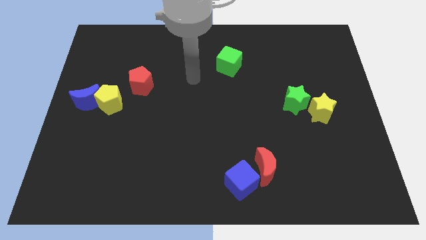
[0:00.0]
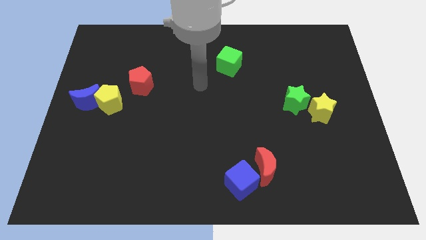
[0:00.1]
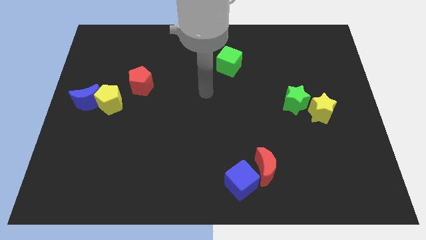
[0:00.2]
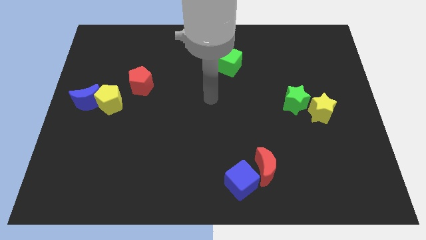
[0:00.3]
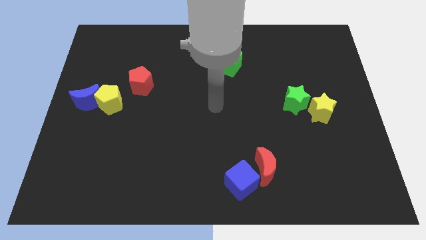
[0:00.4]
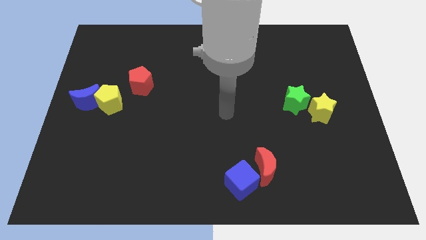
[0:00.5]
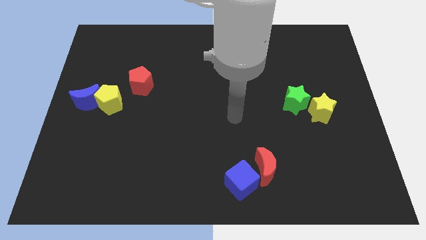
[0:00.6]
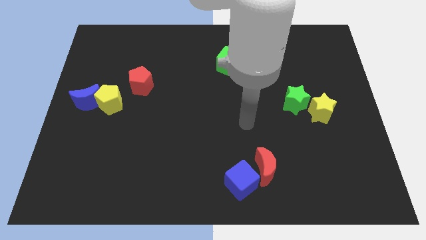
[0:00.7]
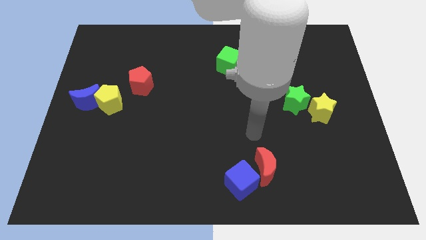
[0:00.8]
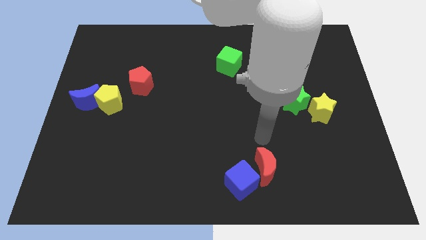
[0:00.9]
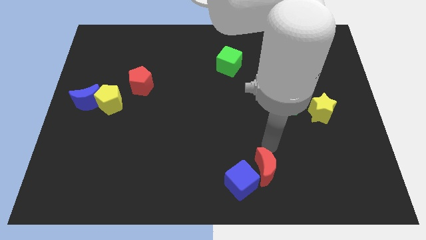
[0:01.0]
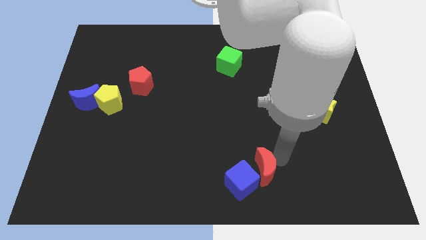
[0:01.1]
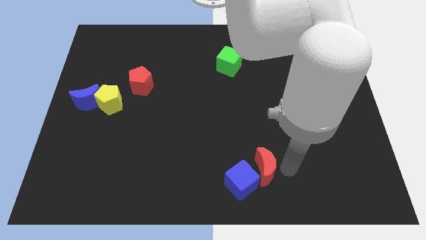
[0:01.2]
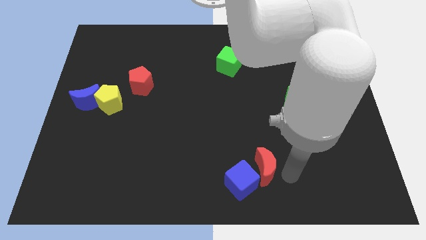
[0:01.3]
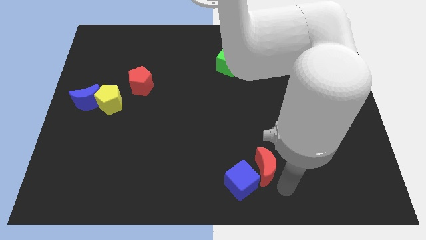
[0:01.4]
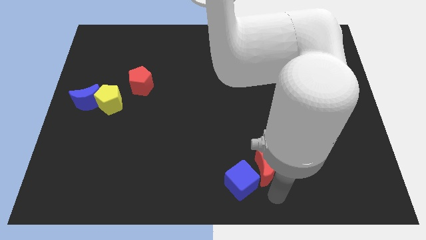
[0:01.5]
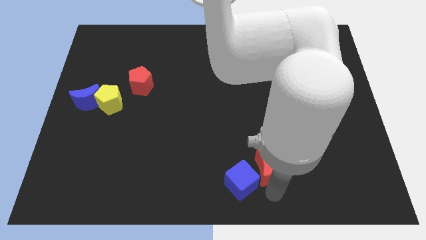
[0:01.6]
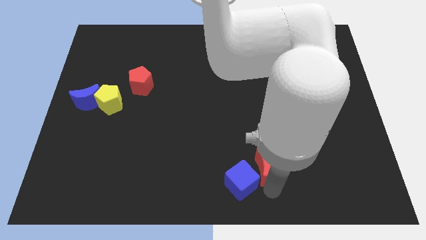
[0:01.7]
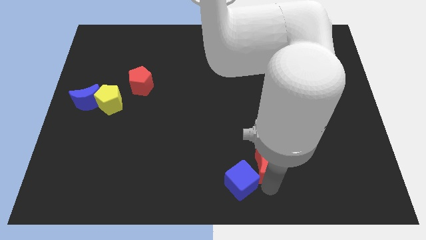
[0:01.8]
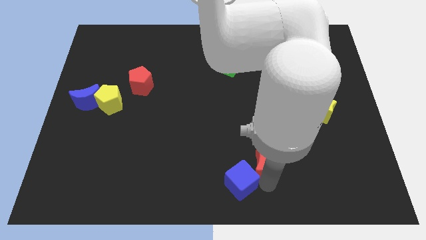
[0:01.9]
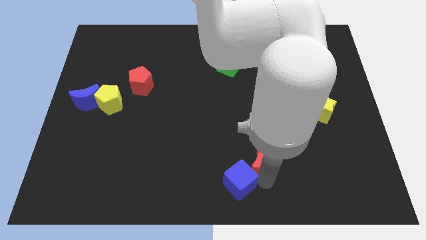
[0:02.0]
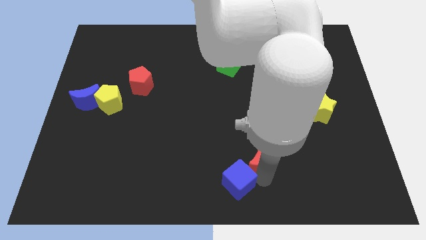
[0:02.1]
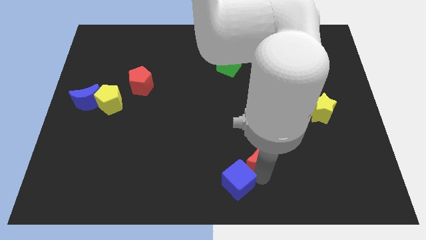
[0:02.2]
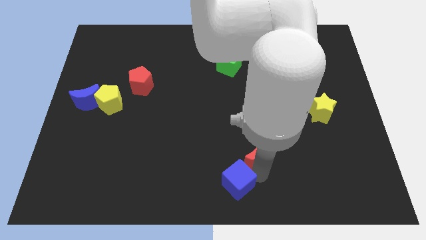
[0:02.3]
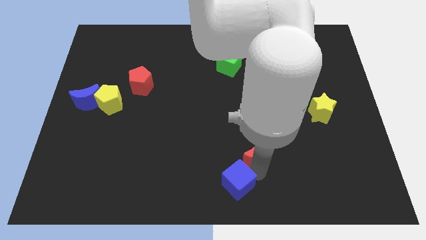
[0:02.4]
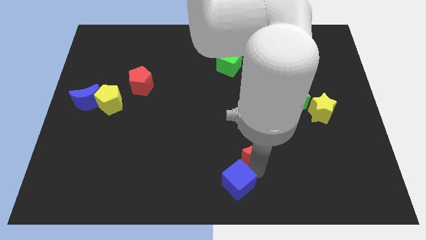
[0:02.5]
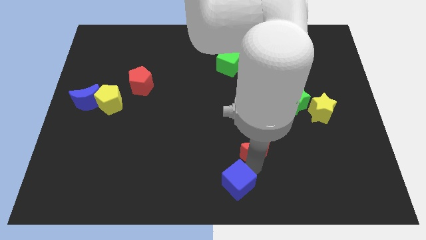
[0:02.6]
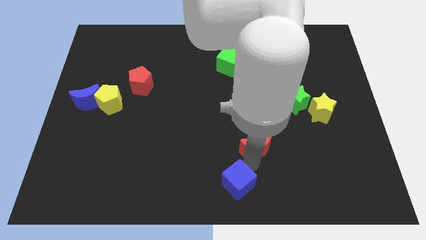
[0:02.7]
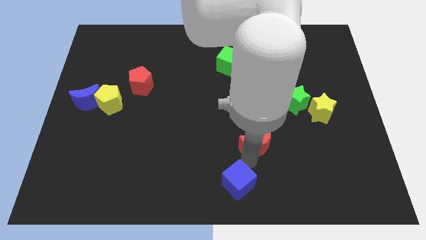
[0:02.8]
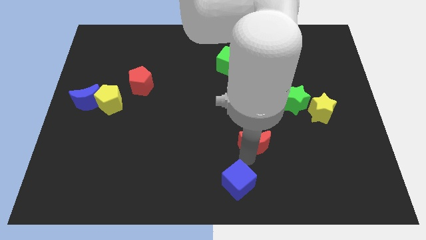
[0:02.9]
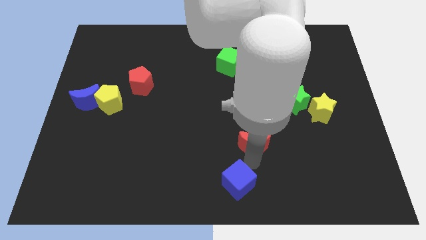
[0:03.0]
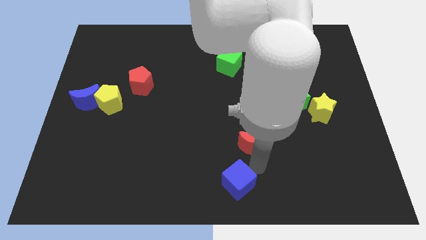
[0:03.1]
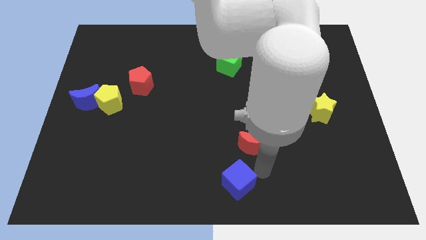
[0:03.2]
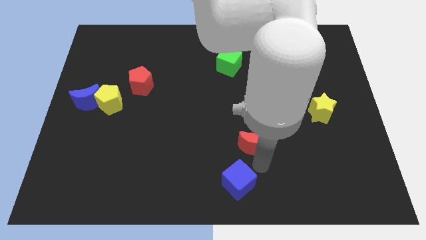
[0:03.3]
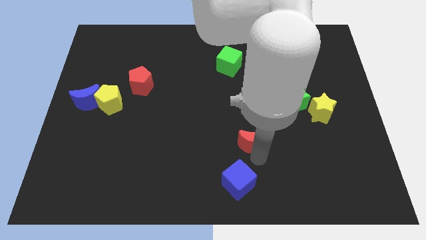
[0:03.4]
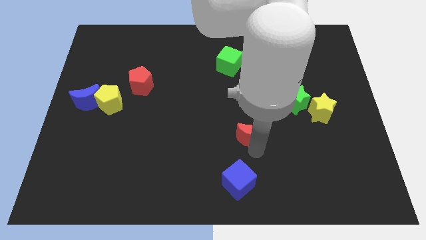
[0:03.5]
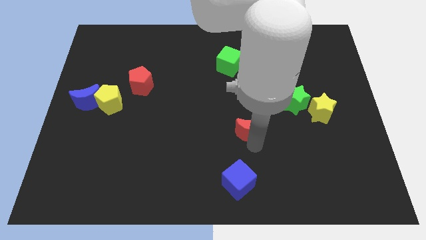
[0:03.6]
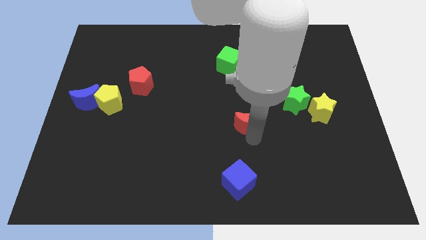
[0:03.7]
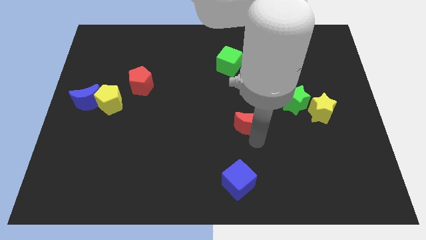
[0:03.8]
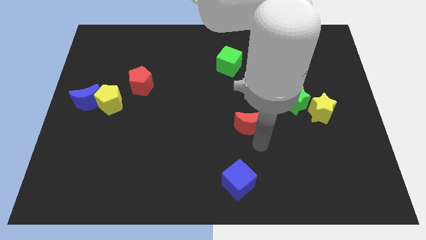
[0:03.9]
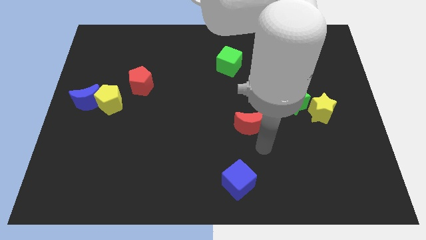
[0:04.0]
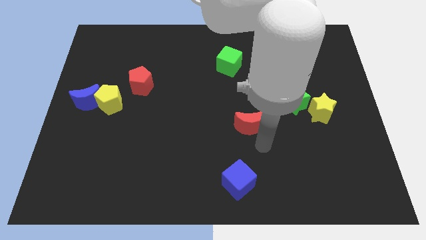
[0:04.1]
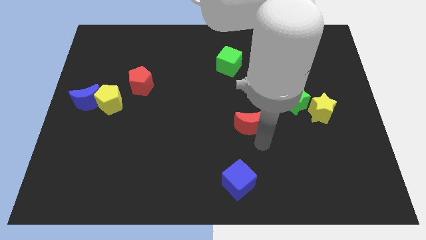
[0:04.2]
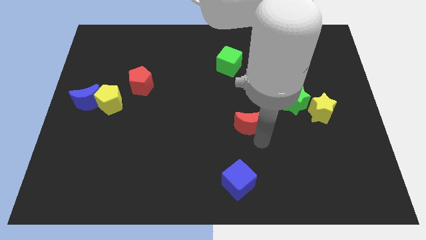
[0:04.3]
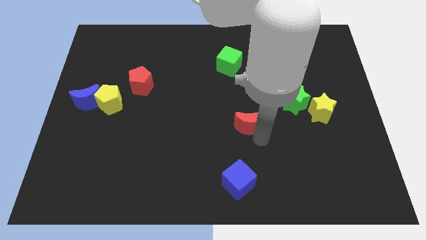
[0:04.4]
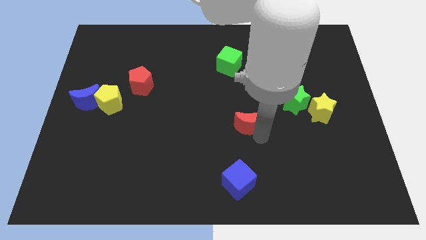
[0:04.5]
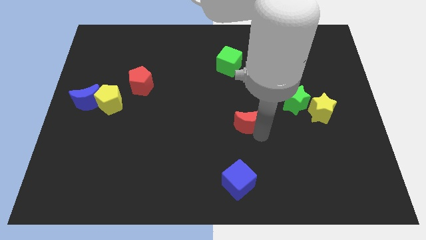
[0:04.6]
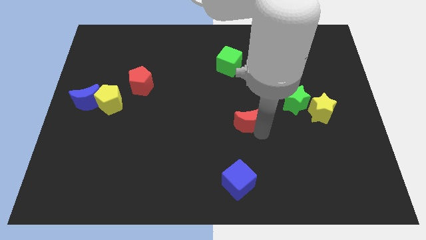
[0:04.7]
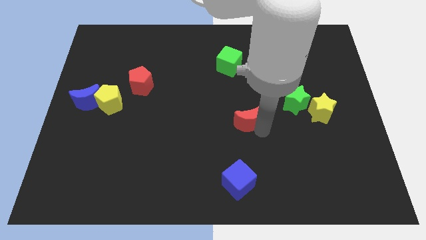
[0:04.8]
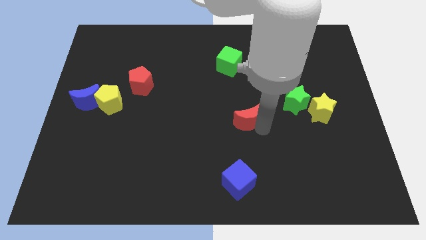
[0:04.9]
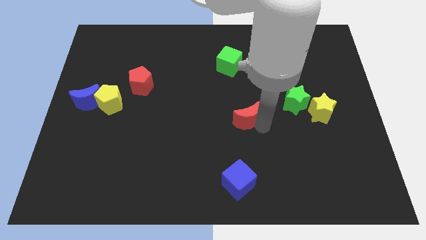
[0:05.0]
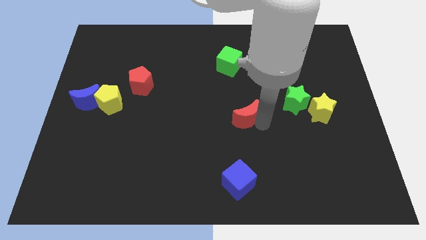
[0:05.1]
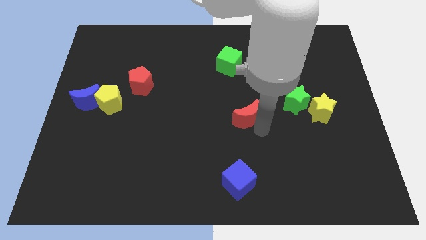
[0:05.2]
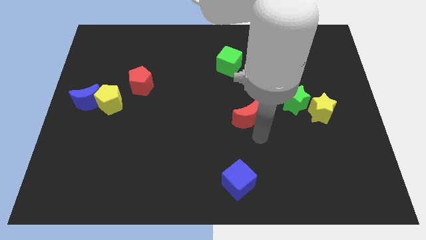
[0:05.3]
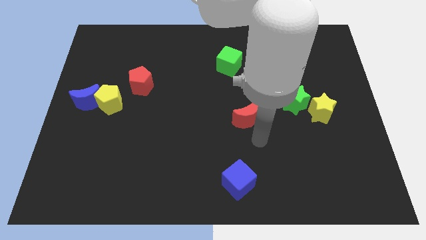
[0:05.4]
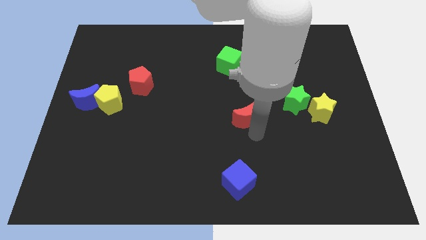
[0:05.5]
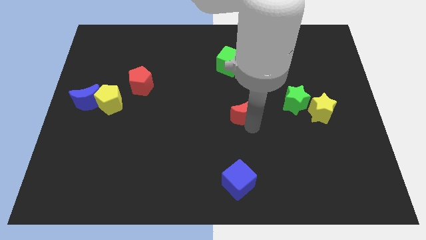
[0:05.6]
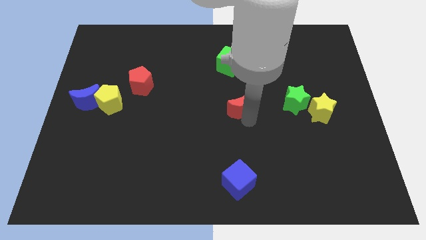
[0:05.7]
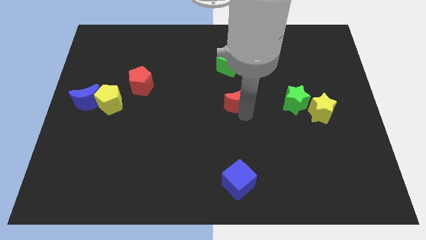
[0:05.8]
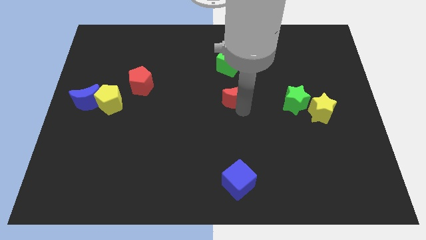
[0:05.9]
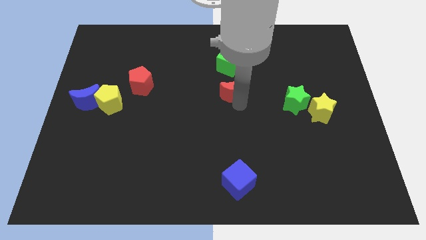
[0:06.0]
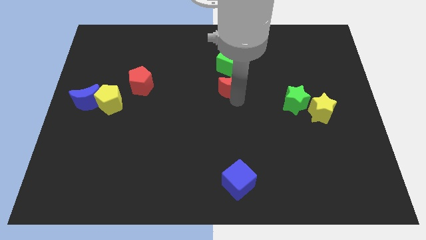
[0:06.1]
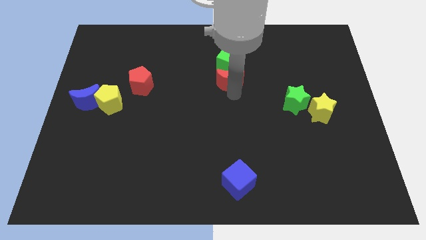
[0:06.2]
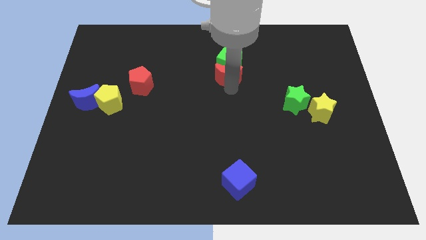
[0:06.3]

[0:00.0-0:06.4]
slide the red moon towards the green cube

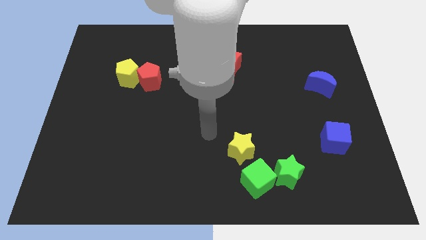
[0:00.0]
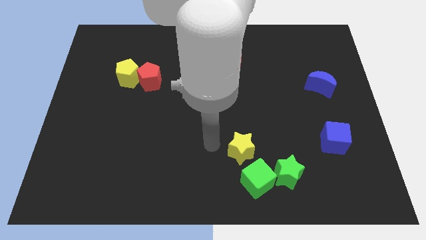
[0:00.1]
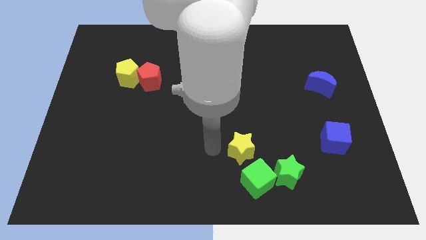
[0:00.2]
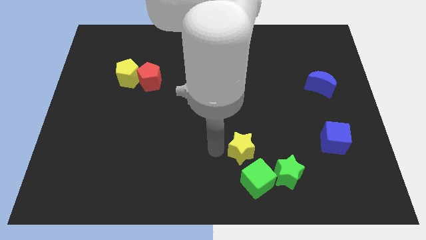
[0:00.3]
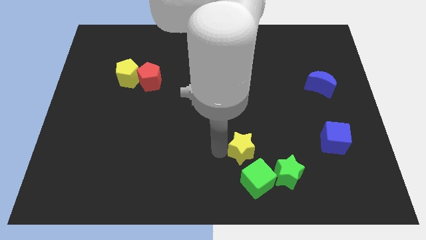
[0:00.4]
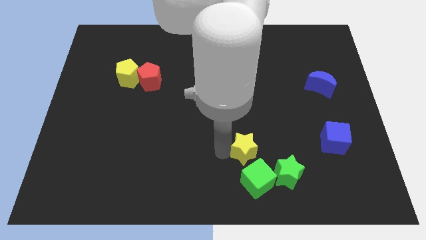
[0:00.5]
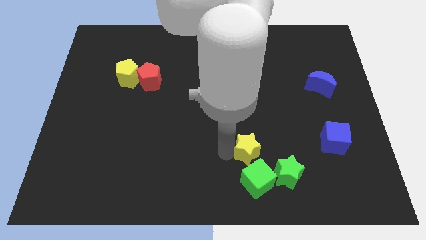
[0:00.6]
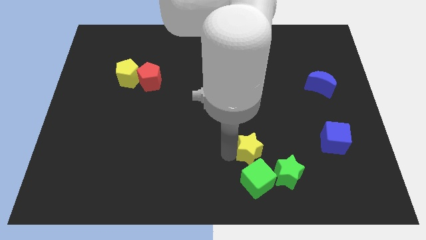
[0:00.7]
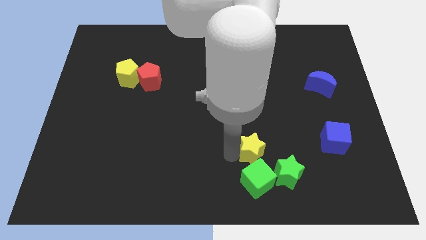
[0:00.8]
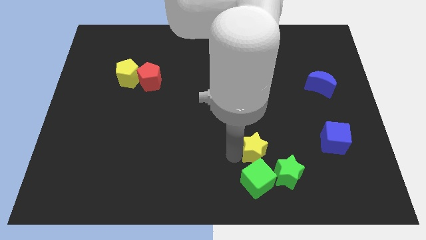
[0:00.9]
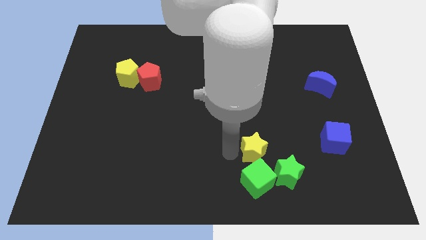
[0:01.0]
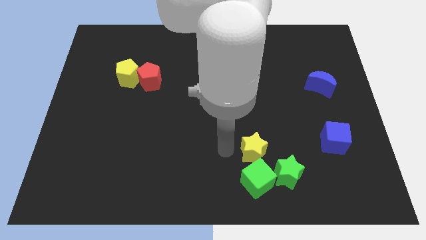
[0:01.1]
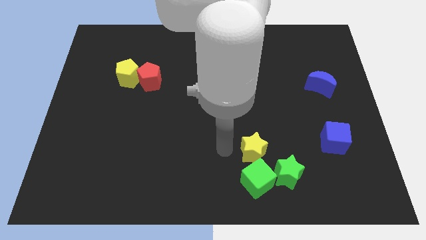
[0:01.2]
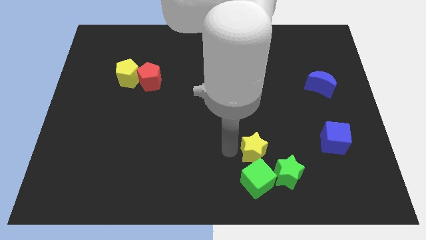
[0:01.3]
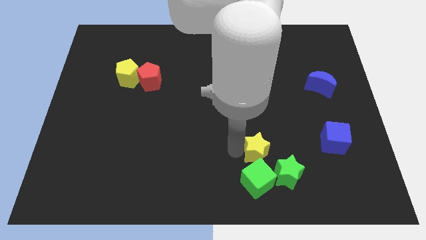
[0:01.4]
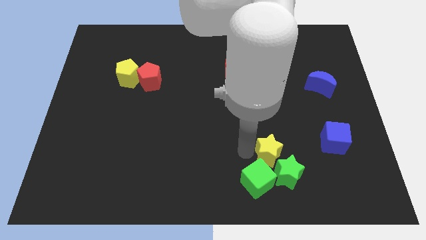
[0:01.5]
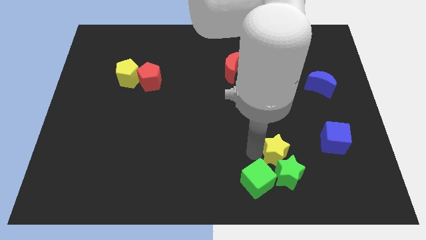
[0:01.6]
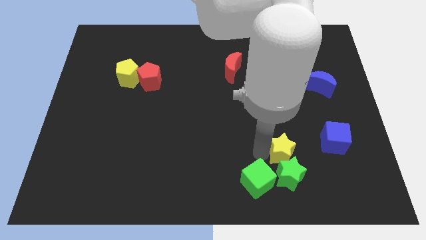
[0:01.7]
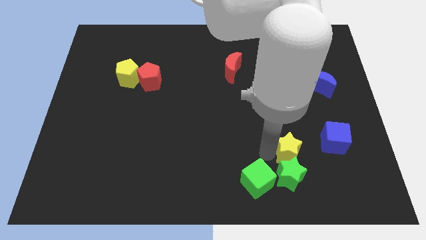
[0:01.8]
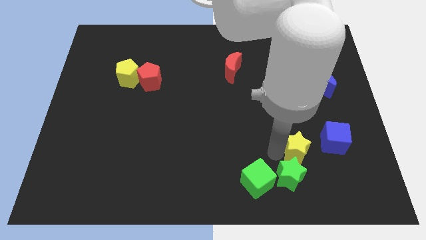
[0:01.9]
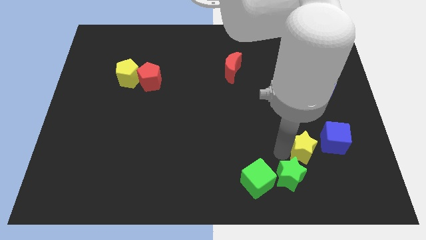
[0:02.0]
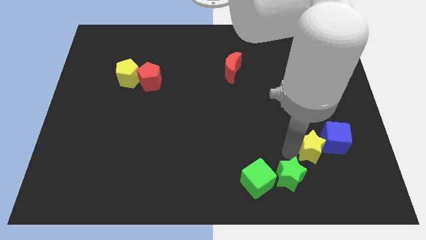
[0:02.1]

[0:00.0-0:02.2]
push the yellow star towards the blue cube
